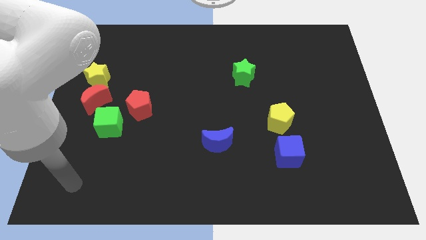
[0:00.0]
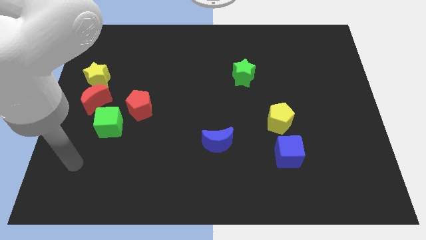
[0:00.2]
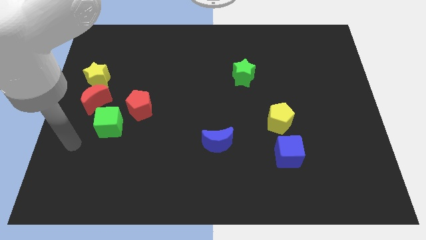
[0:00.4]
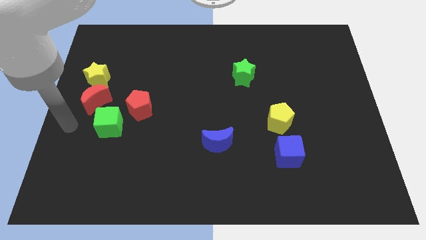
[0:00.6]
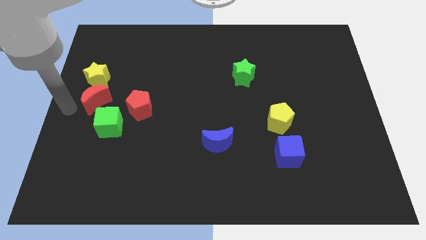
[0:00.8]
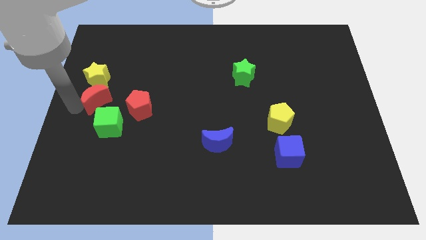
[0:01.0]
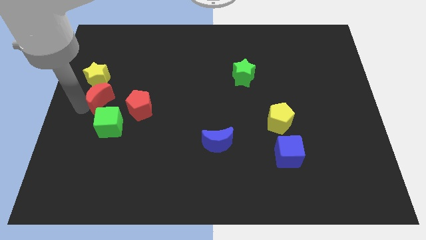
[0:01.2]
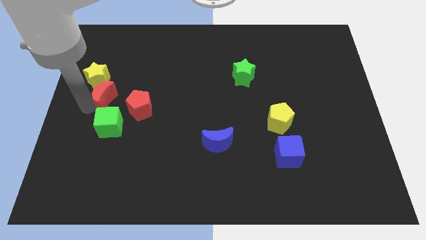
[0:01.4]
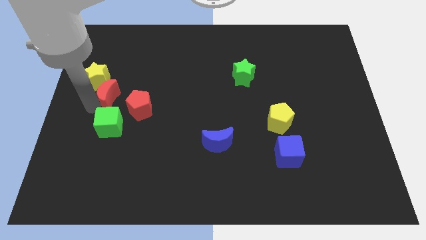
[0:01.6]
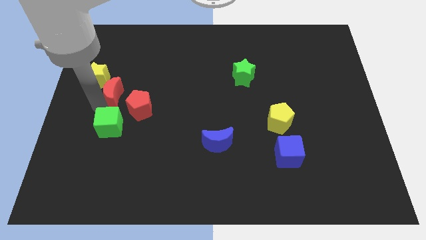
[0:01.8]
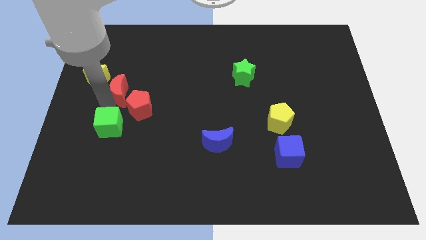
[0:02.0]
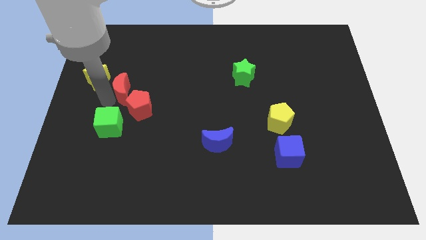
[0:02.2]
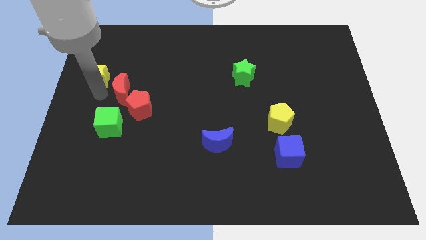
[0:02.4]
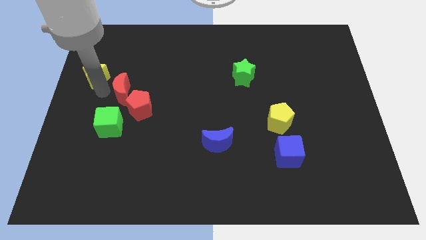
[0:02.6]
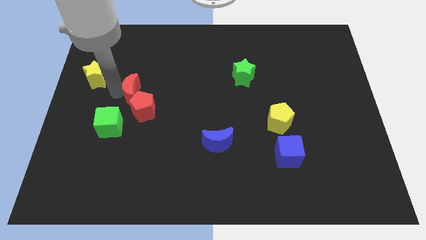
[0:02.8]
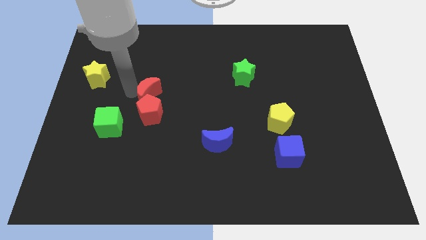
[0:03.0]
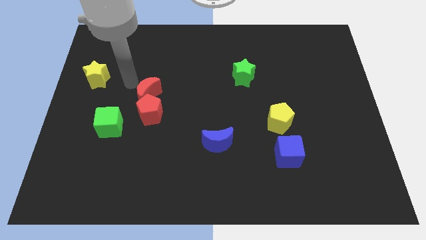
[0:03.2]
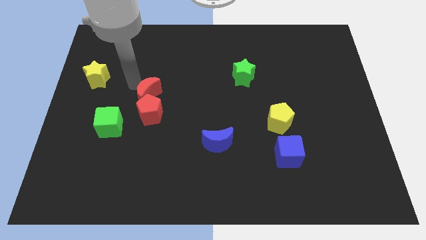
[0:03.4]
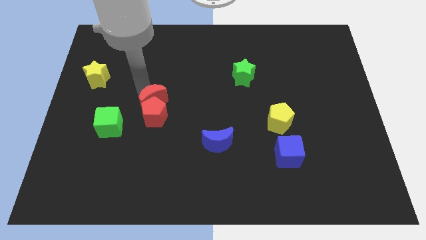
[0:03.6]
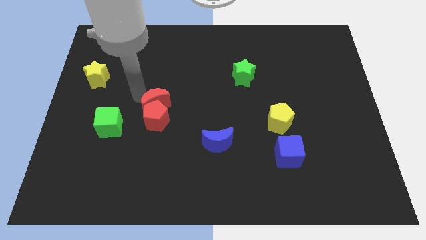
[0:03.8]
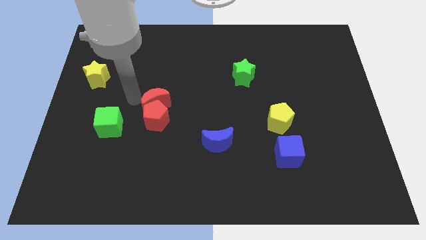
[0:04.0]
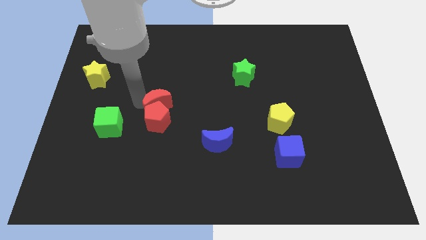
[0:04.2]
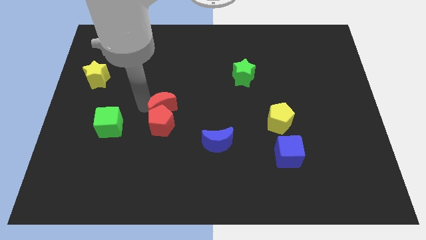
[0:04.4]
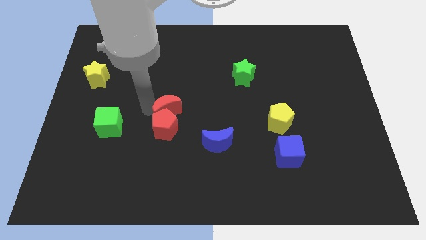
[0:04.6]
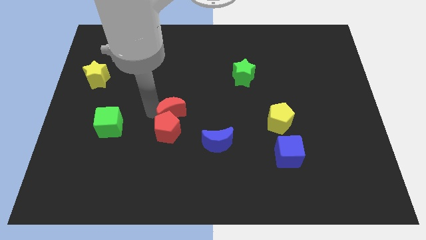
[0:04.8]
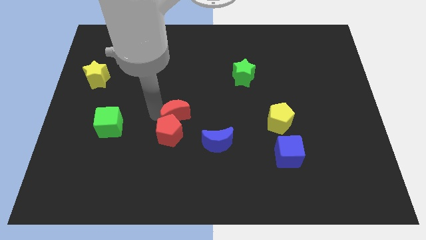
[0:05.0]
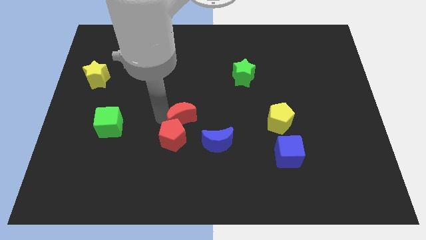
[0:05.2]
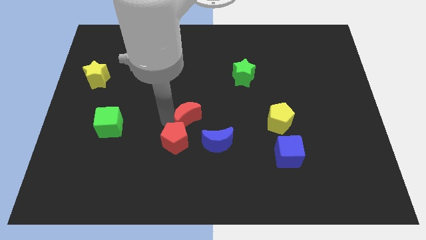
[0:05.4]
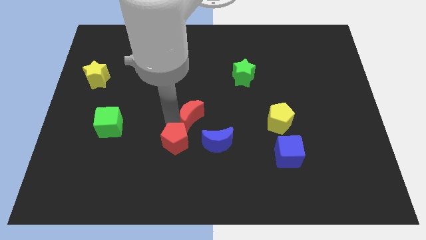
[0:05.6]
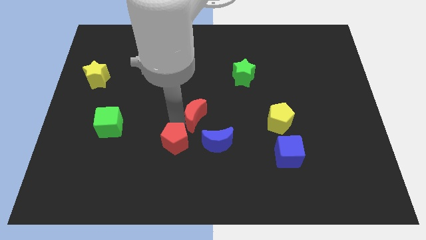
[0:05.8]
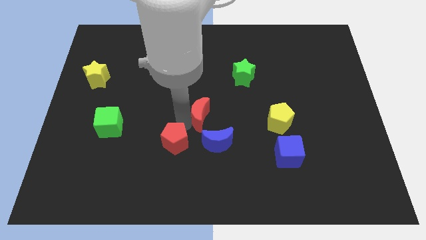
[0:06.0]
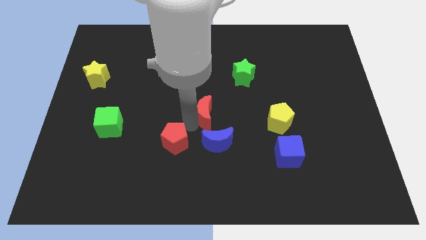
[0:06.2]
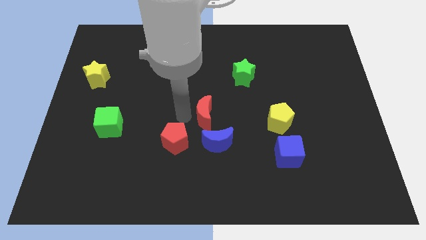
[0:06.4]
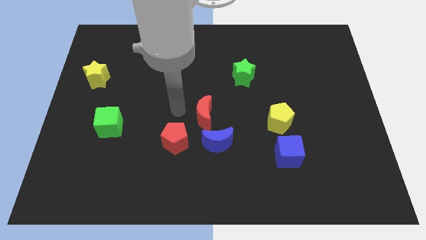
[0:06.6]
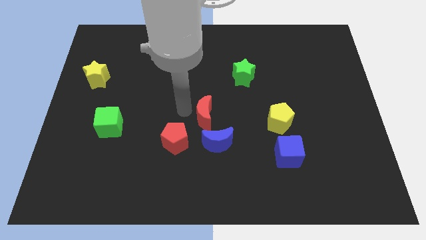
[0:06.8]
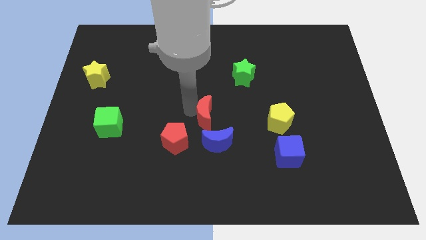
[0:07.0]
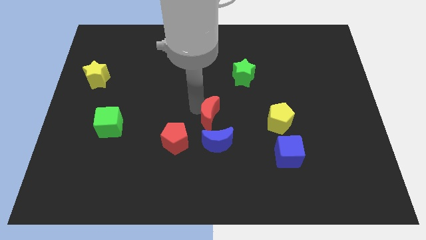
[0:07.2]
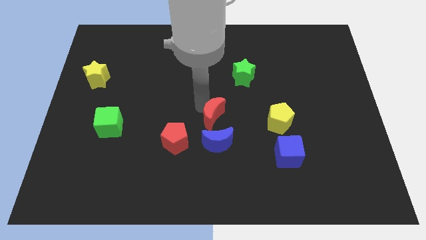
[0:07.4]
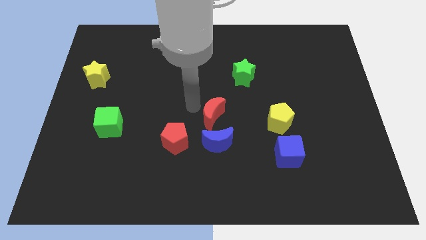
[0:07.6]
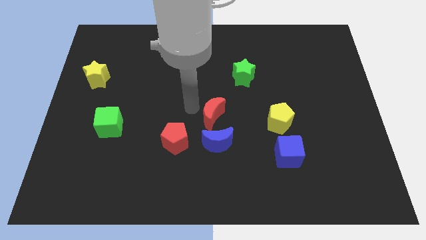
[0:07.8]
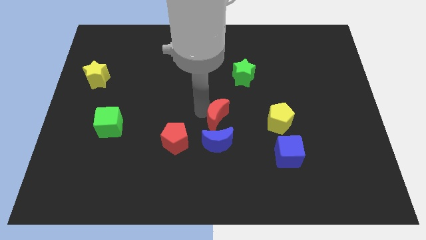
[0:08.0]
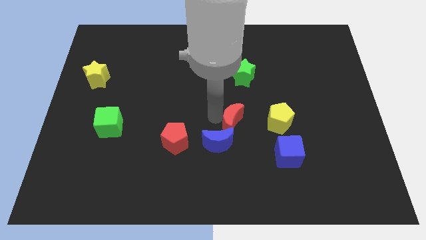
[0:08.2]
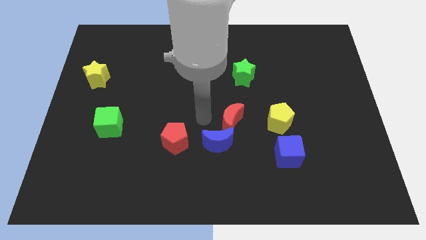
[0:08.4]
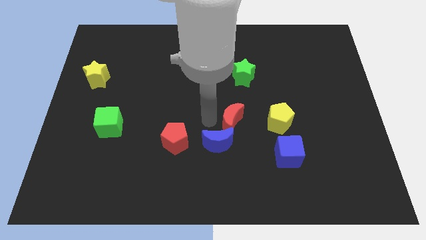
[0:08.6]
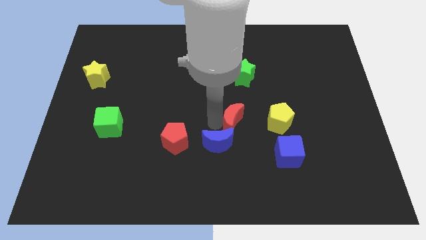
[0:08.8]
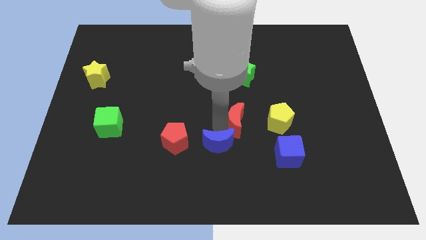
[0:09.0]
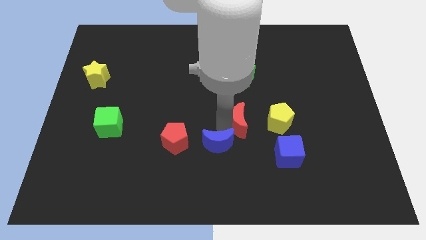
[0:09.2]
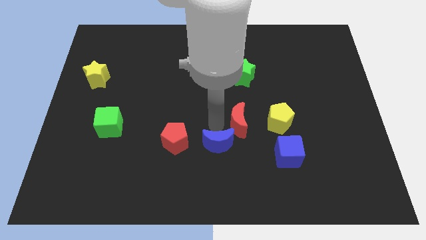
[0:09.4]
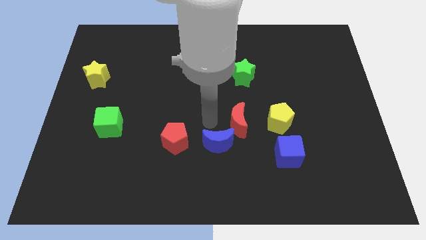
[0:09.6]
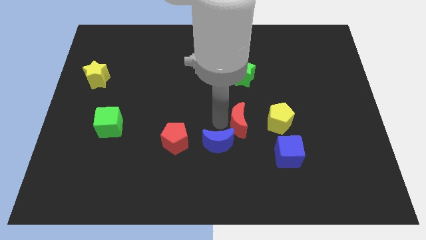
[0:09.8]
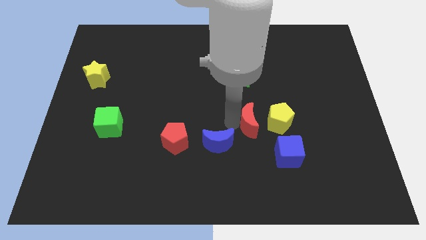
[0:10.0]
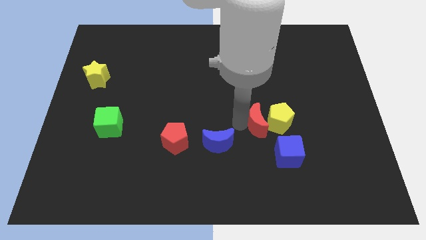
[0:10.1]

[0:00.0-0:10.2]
move the red moon to the yellow pentagon

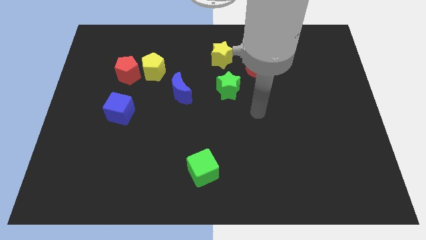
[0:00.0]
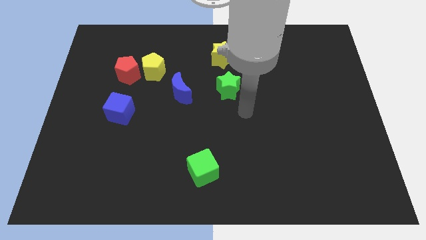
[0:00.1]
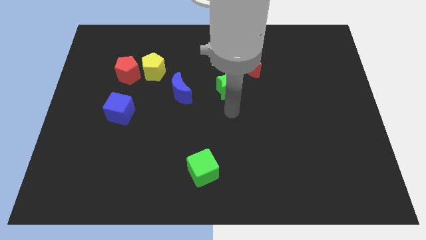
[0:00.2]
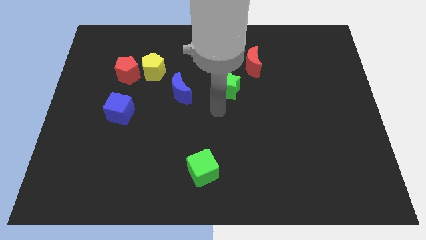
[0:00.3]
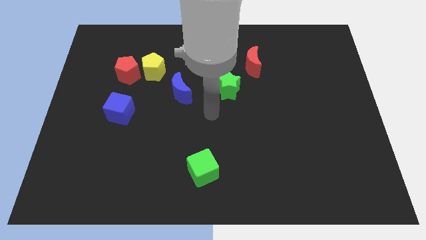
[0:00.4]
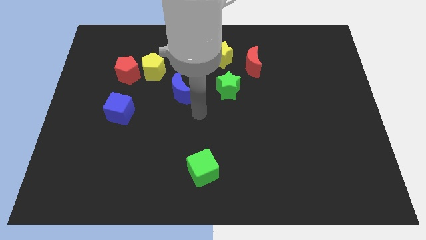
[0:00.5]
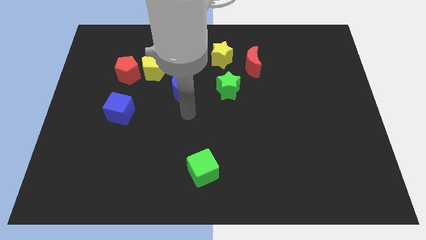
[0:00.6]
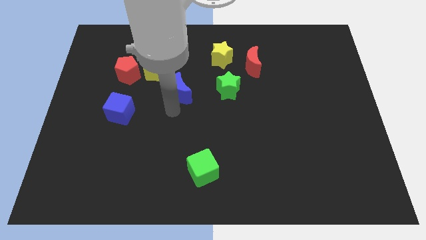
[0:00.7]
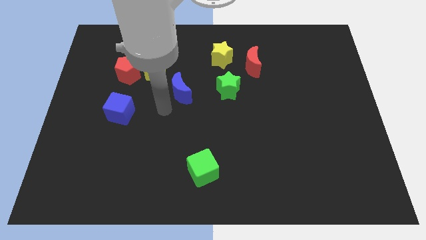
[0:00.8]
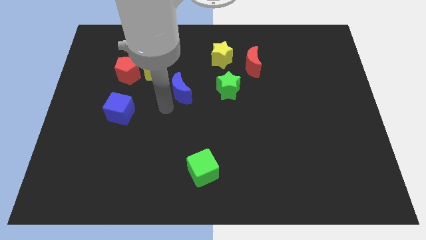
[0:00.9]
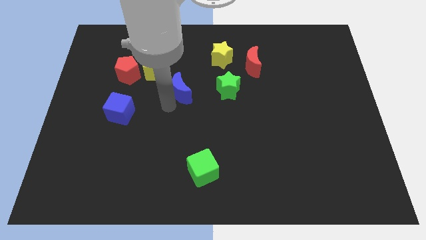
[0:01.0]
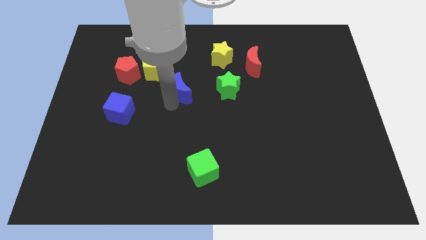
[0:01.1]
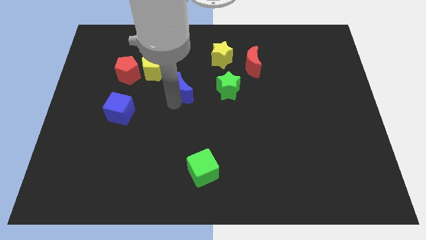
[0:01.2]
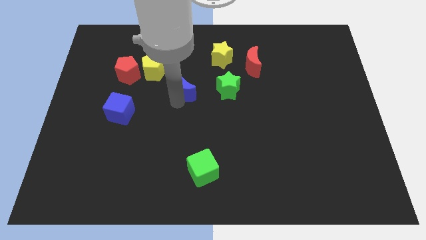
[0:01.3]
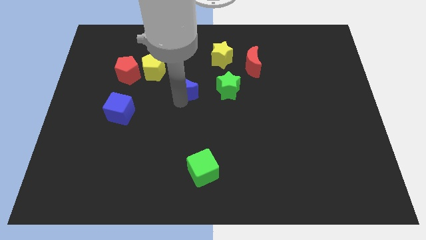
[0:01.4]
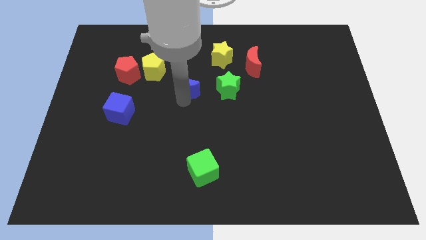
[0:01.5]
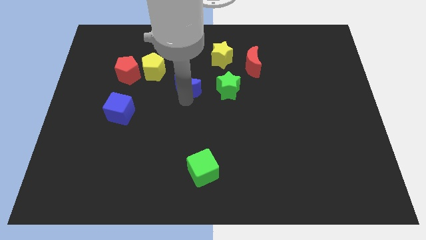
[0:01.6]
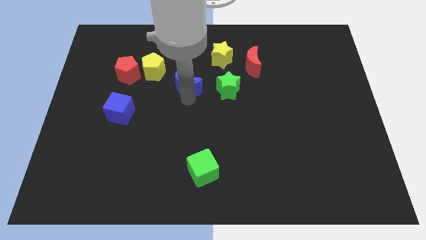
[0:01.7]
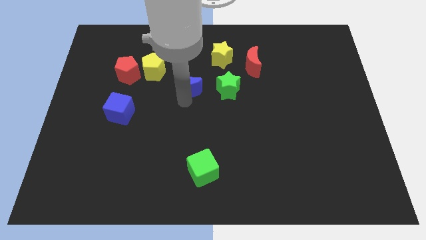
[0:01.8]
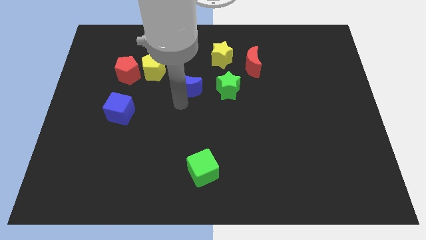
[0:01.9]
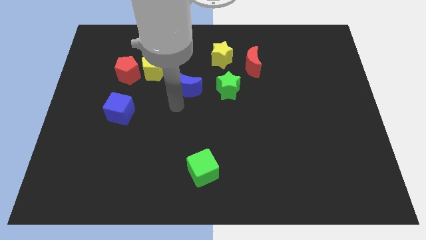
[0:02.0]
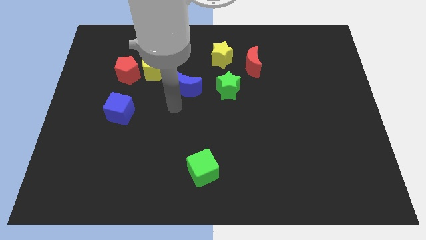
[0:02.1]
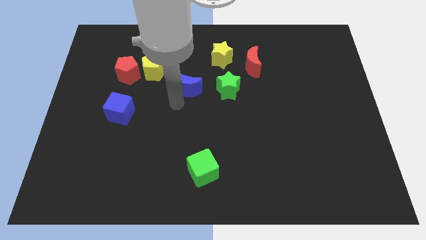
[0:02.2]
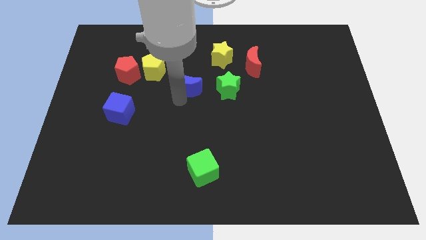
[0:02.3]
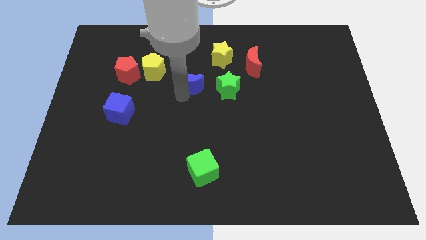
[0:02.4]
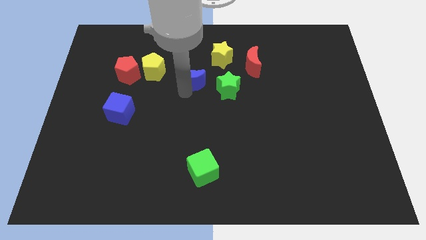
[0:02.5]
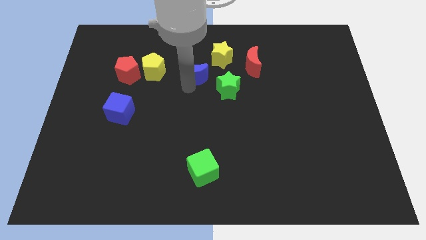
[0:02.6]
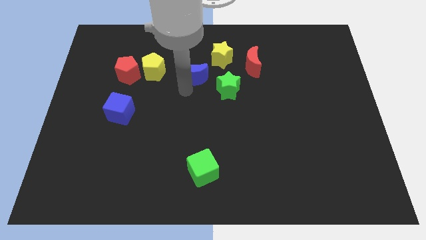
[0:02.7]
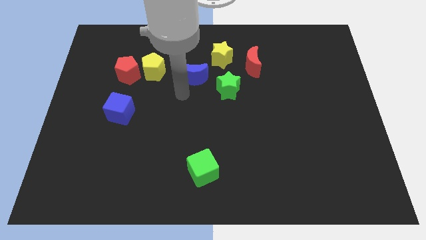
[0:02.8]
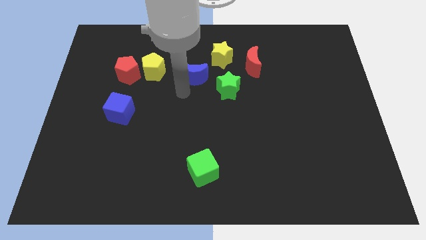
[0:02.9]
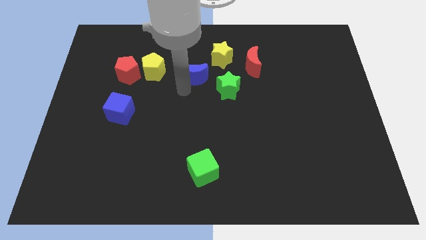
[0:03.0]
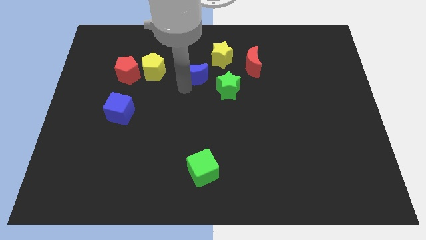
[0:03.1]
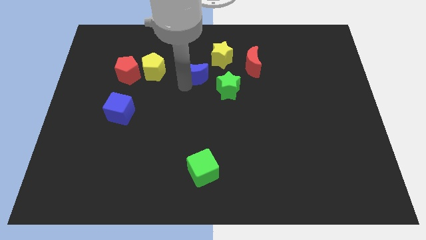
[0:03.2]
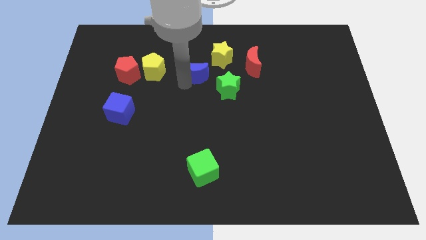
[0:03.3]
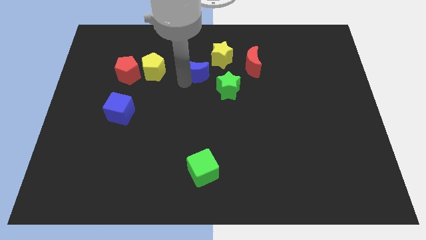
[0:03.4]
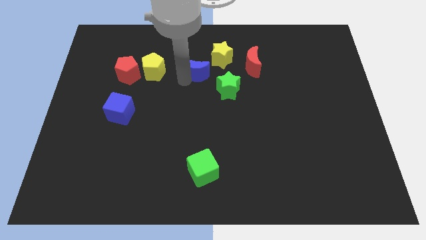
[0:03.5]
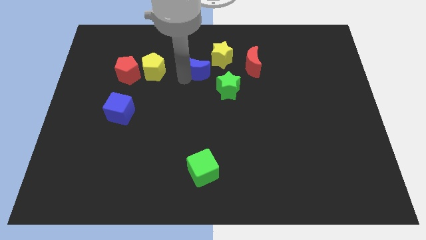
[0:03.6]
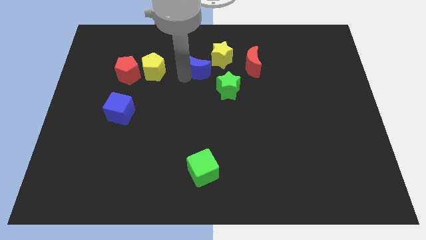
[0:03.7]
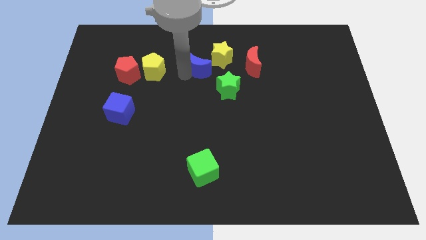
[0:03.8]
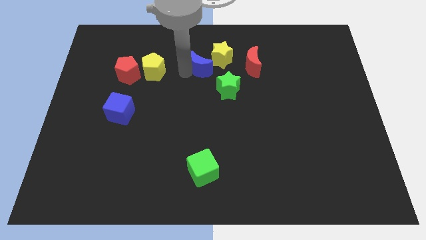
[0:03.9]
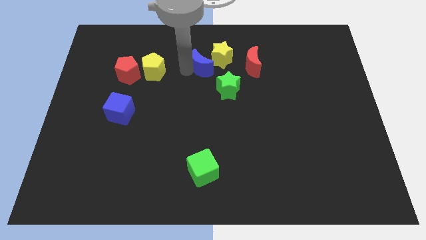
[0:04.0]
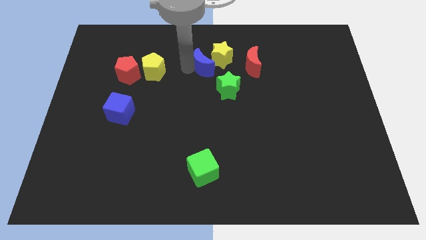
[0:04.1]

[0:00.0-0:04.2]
move the blue moon next to the yellow star
